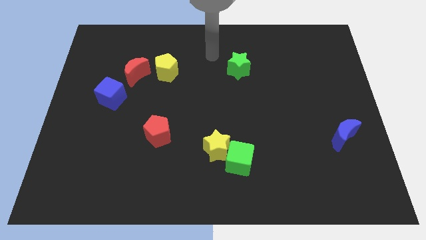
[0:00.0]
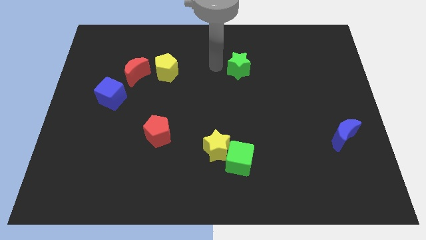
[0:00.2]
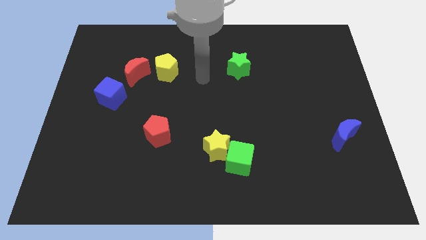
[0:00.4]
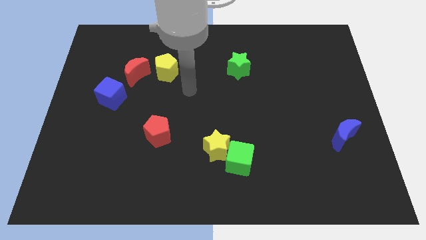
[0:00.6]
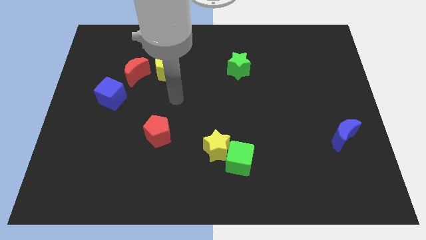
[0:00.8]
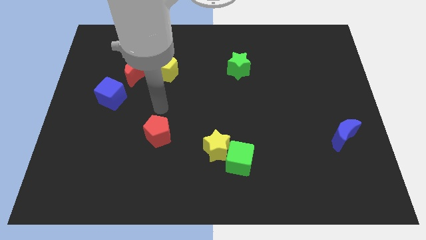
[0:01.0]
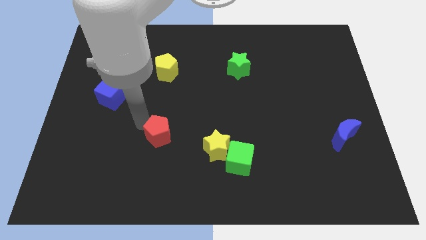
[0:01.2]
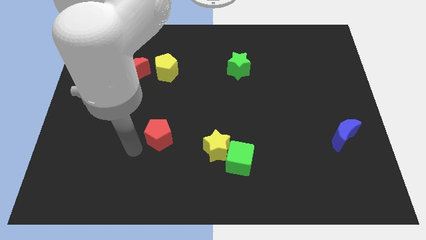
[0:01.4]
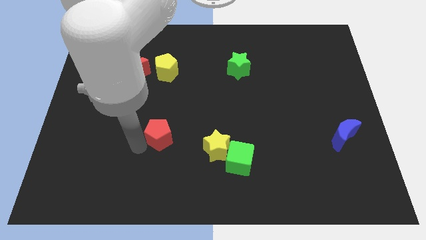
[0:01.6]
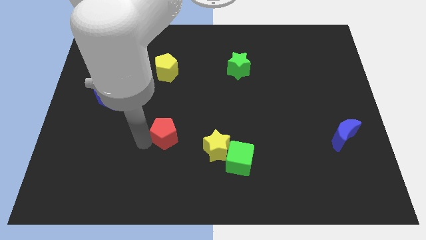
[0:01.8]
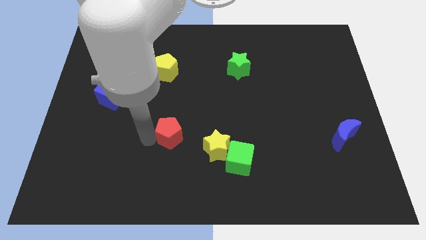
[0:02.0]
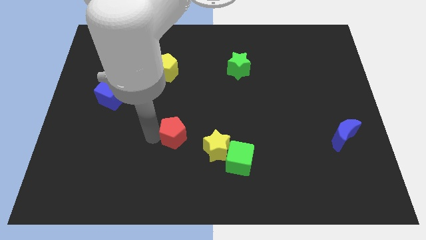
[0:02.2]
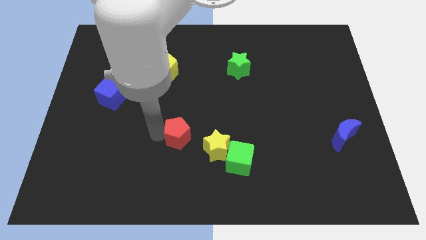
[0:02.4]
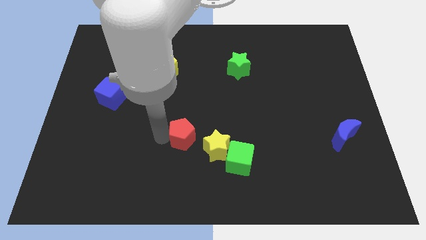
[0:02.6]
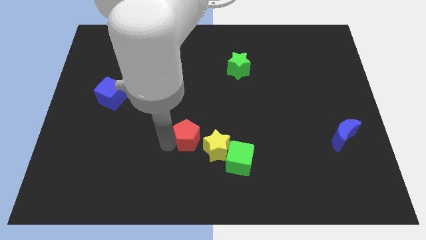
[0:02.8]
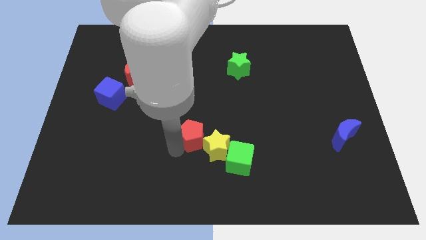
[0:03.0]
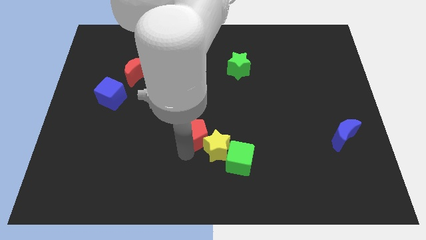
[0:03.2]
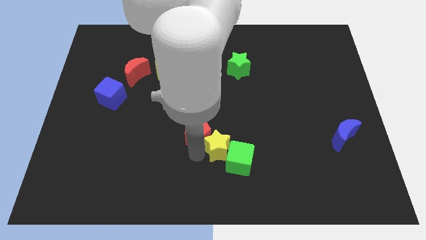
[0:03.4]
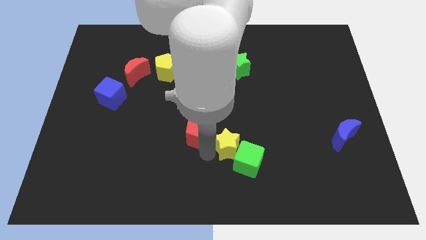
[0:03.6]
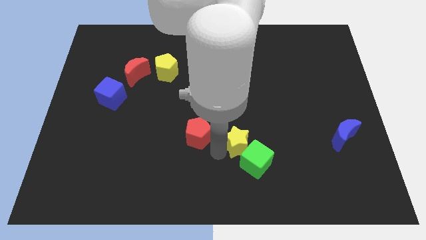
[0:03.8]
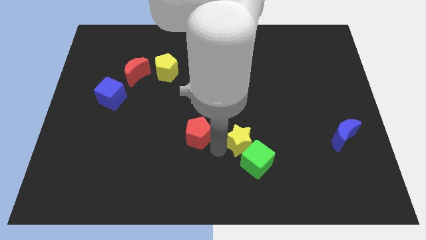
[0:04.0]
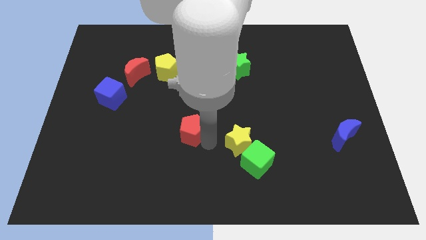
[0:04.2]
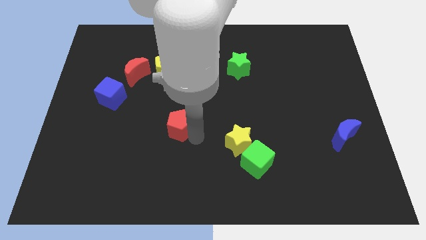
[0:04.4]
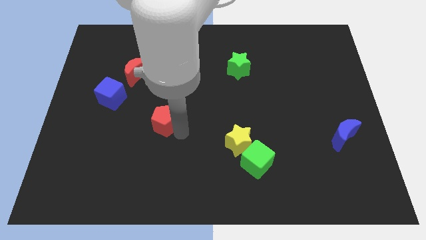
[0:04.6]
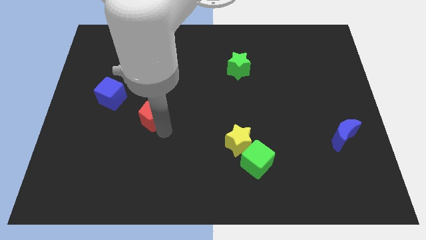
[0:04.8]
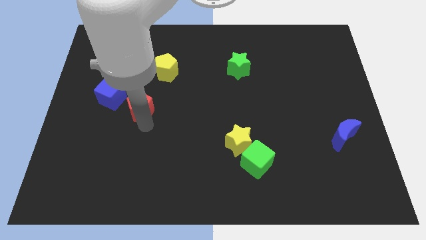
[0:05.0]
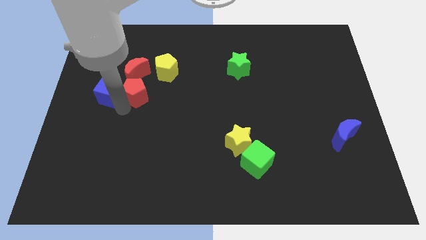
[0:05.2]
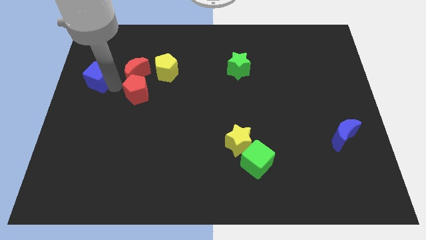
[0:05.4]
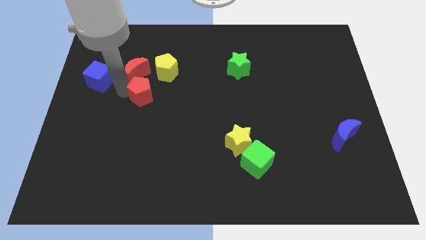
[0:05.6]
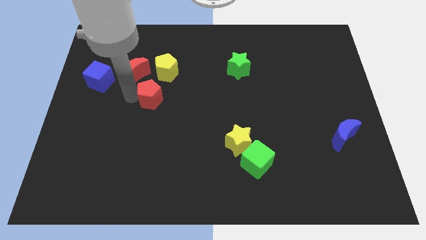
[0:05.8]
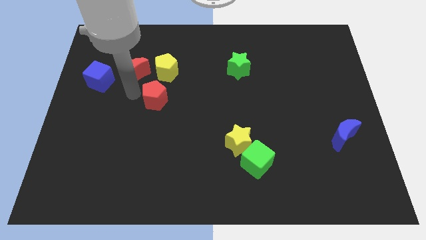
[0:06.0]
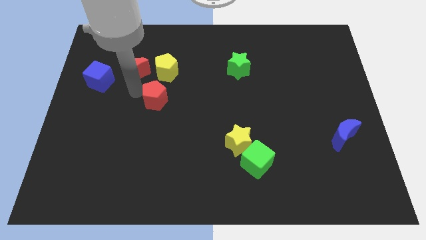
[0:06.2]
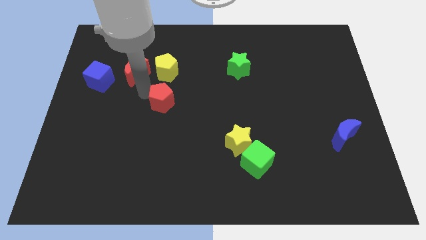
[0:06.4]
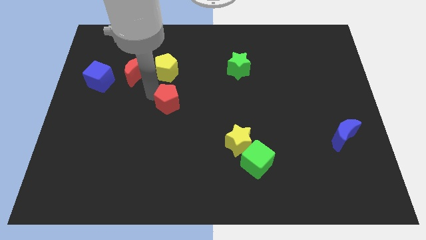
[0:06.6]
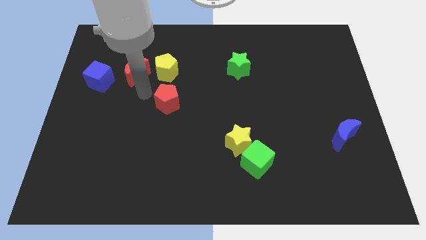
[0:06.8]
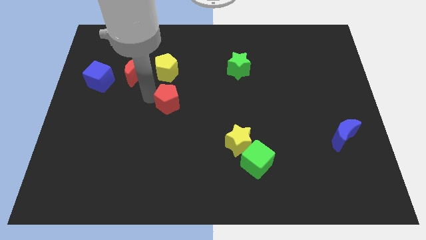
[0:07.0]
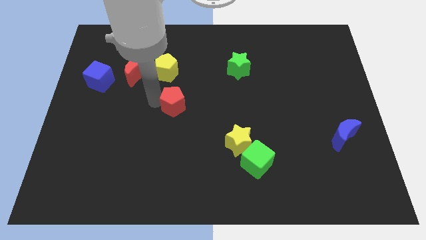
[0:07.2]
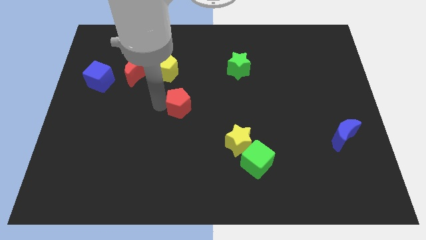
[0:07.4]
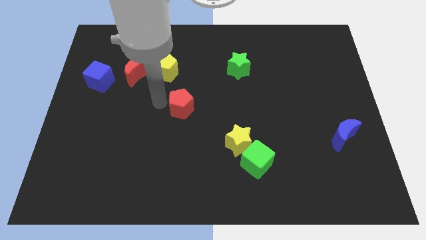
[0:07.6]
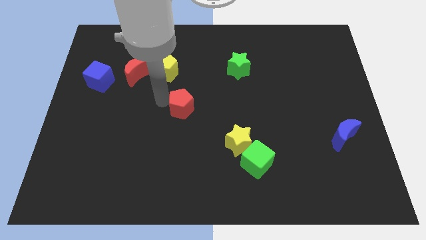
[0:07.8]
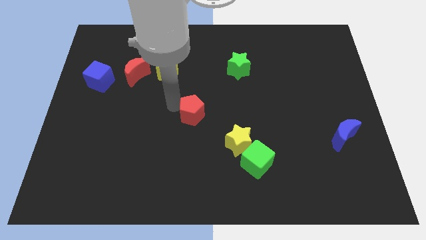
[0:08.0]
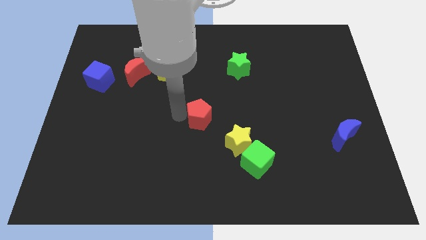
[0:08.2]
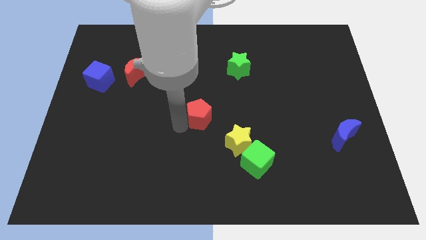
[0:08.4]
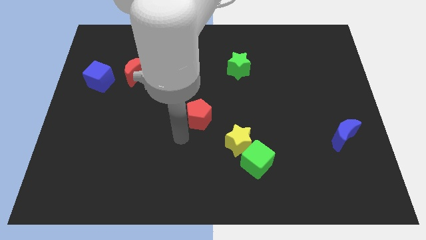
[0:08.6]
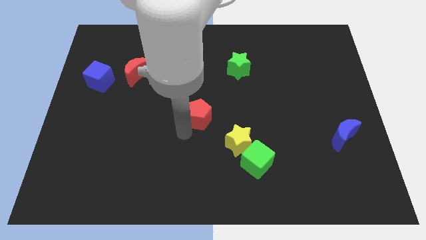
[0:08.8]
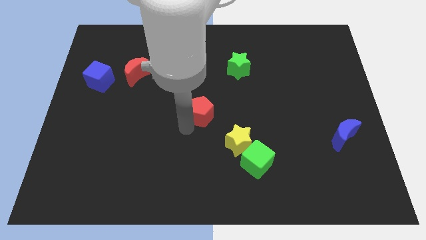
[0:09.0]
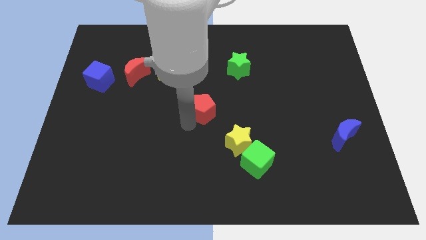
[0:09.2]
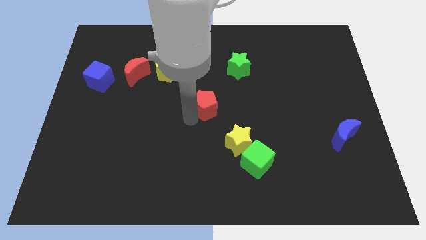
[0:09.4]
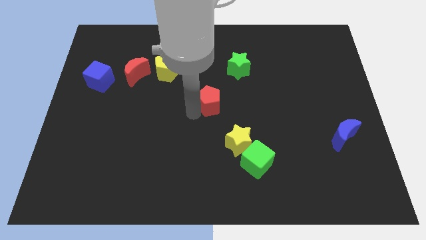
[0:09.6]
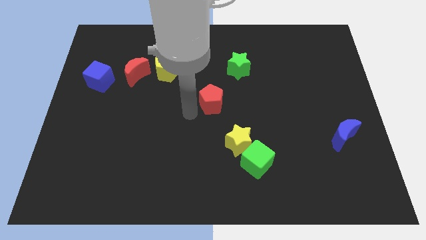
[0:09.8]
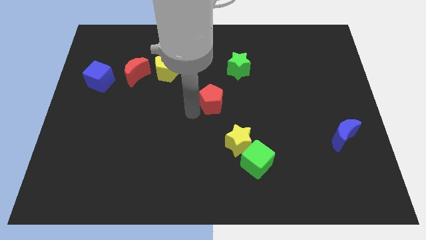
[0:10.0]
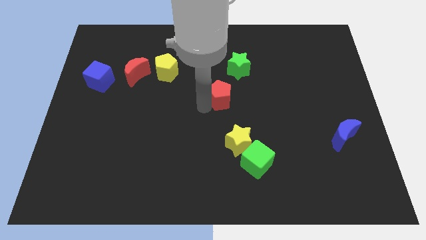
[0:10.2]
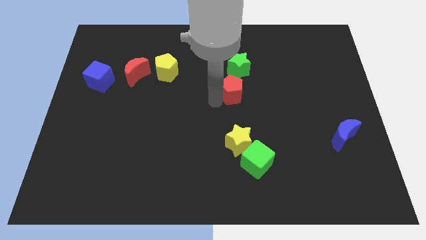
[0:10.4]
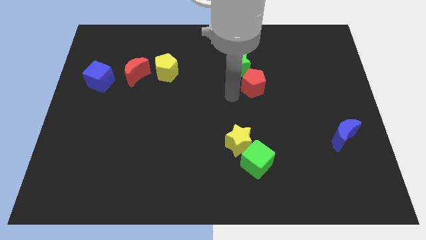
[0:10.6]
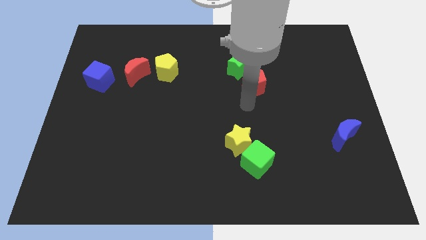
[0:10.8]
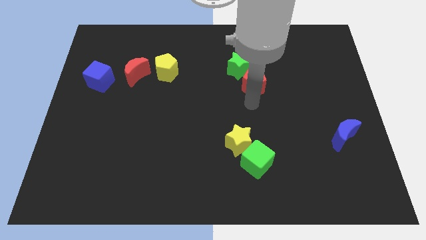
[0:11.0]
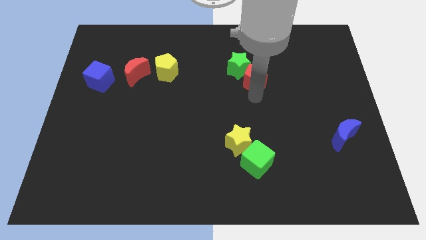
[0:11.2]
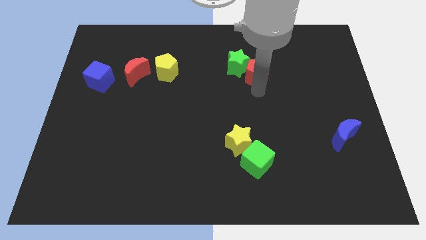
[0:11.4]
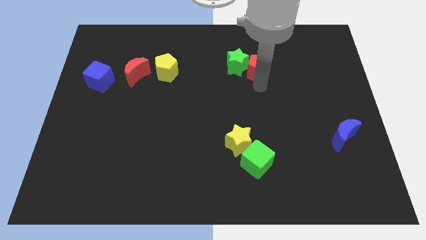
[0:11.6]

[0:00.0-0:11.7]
slide the red pentagon to the top right side of the green star

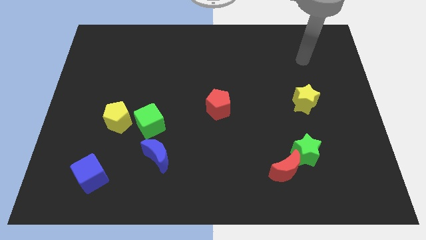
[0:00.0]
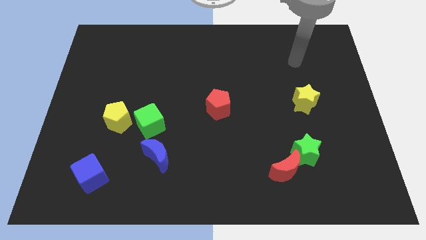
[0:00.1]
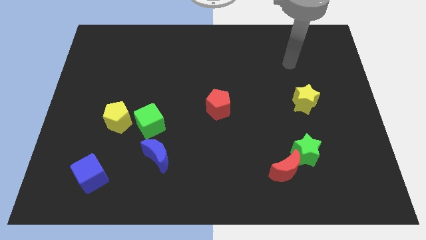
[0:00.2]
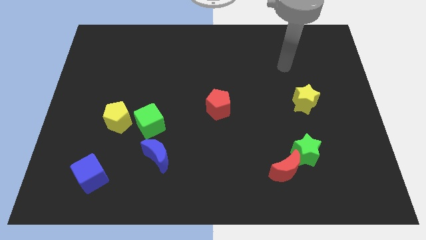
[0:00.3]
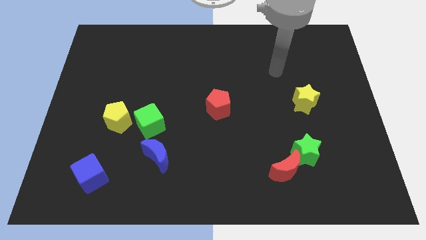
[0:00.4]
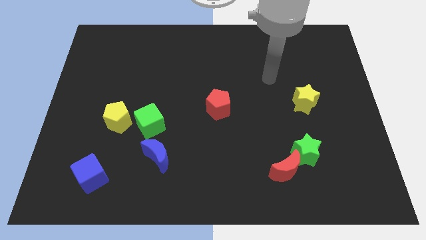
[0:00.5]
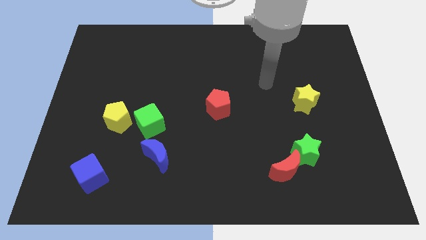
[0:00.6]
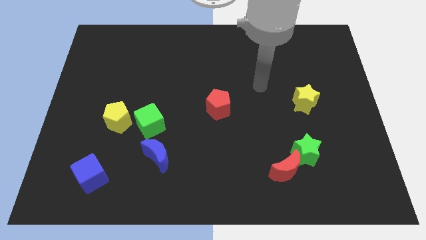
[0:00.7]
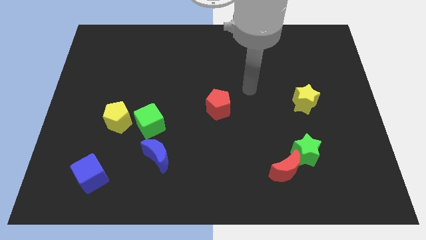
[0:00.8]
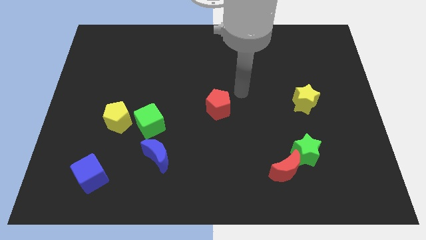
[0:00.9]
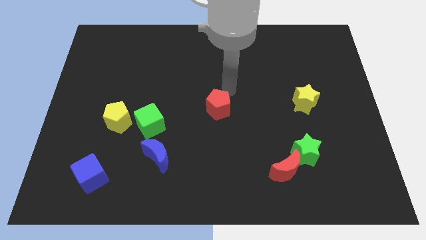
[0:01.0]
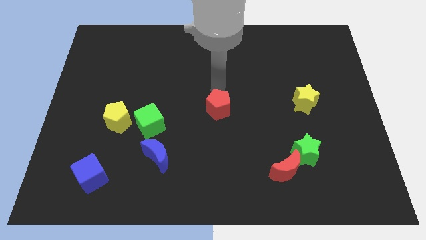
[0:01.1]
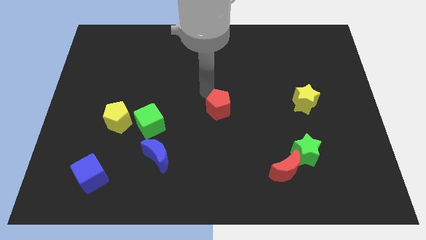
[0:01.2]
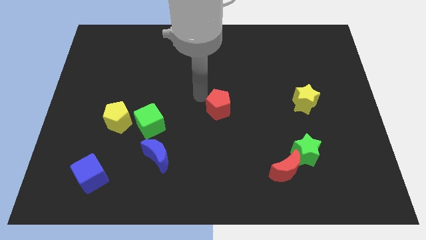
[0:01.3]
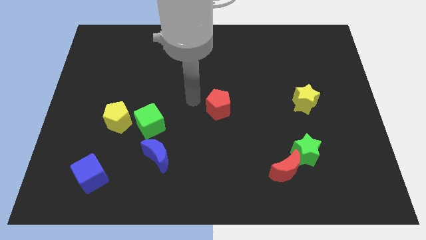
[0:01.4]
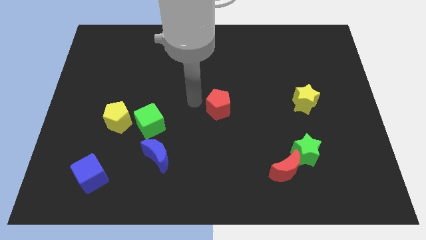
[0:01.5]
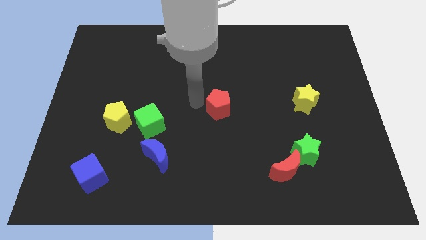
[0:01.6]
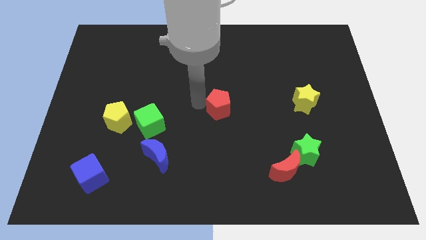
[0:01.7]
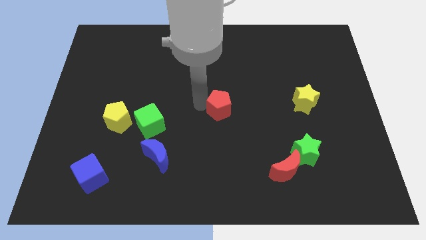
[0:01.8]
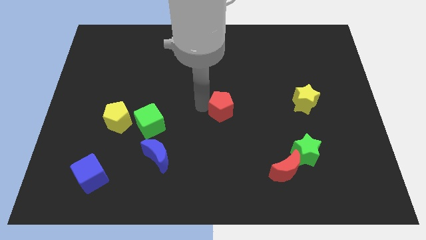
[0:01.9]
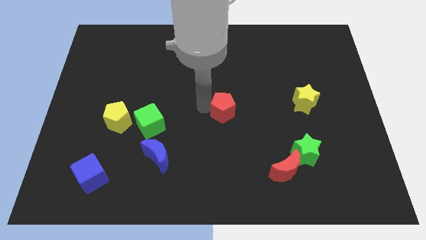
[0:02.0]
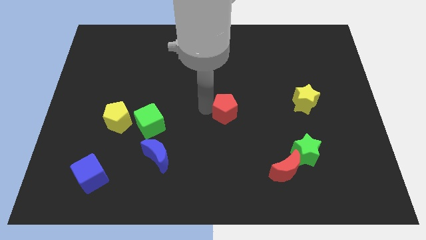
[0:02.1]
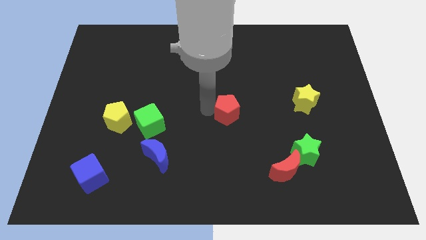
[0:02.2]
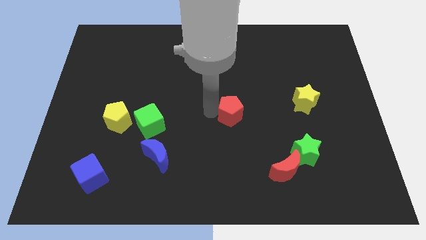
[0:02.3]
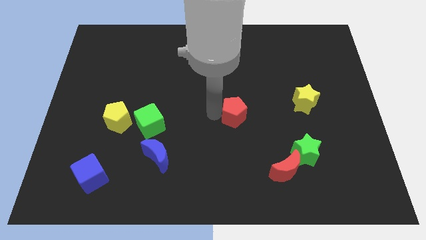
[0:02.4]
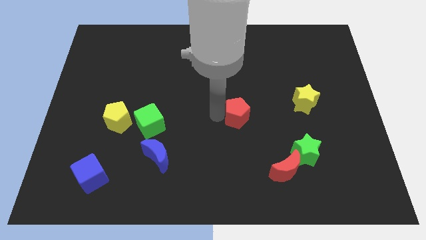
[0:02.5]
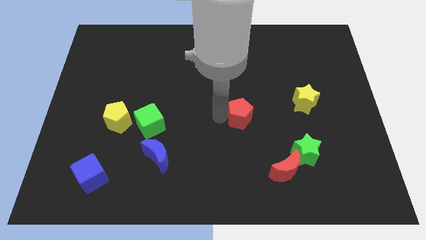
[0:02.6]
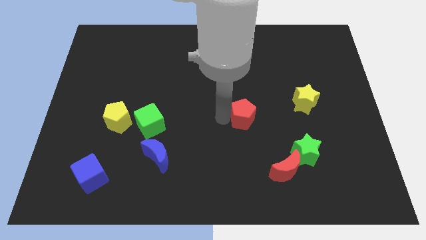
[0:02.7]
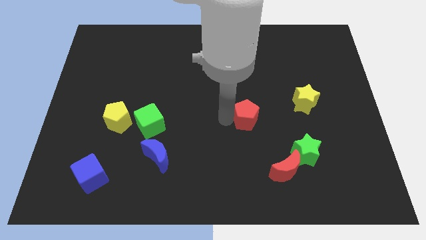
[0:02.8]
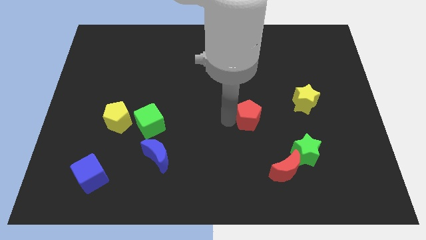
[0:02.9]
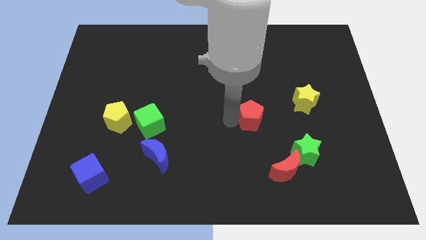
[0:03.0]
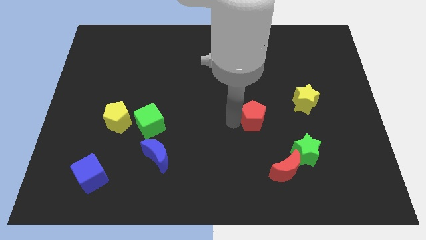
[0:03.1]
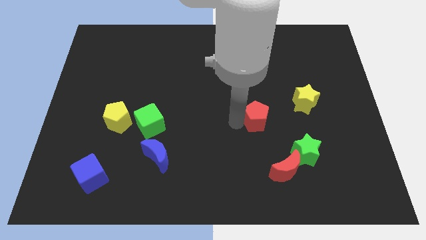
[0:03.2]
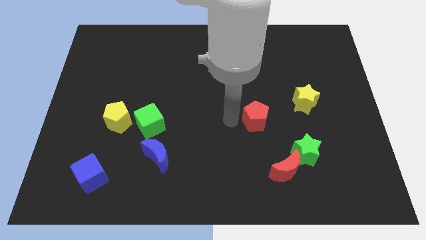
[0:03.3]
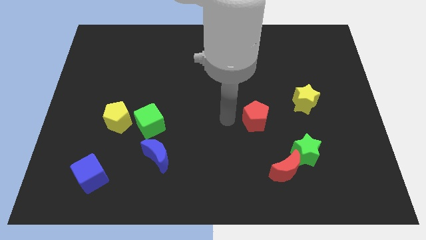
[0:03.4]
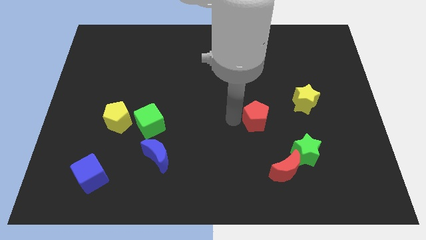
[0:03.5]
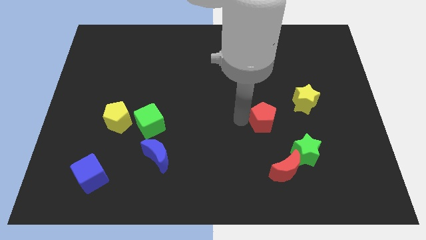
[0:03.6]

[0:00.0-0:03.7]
slide the red pentagon diagonally down and to the left of the yellow star
